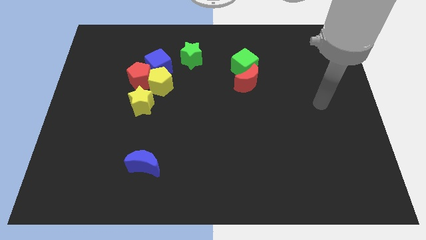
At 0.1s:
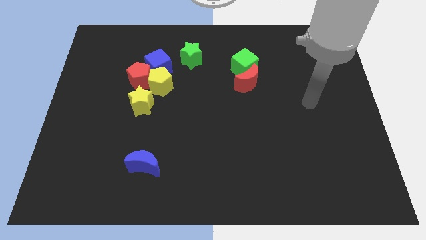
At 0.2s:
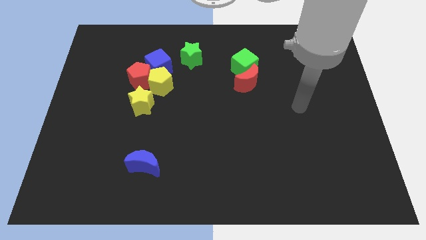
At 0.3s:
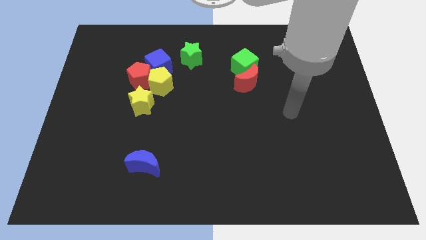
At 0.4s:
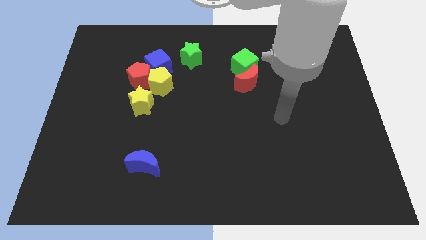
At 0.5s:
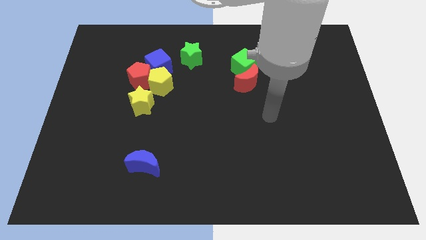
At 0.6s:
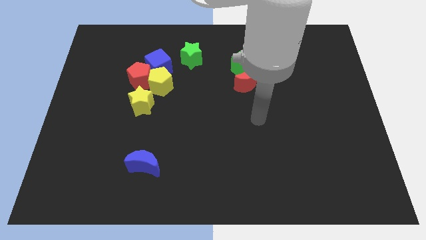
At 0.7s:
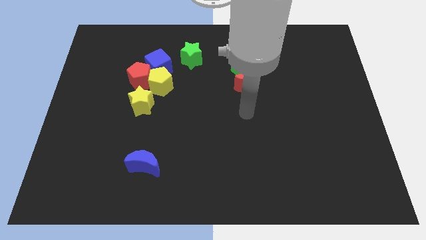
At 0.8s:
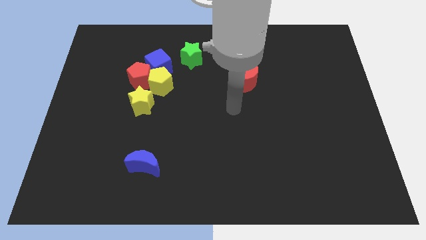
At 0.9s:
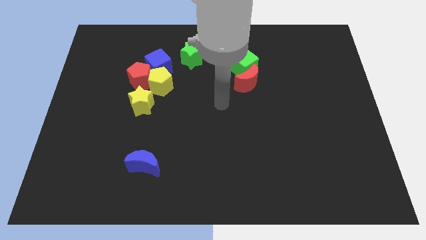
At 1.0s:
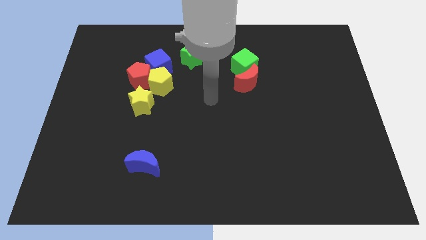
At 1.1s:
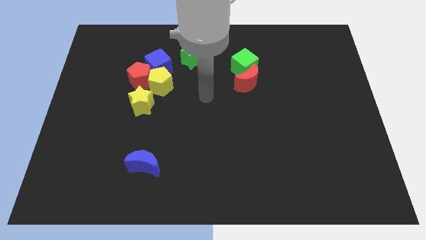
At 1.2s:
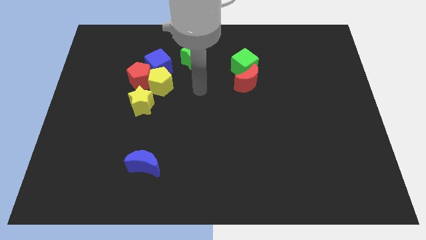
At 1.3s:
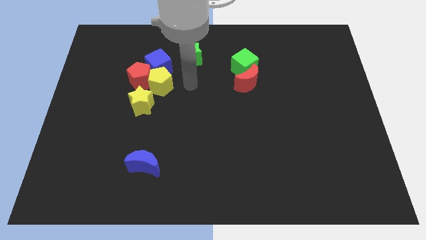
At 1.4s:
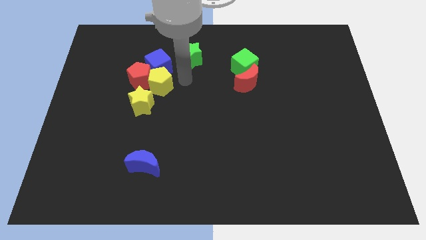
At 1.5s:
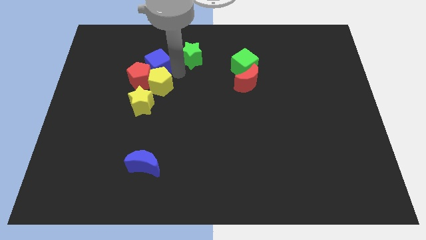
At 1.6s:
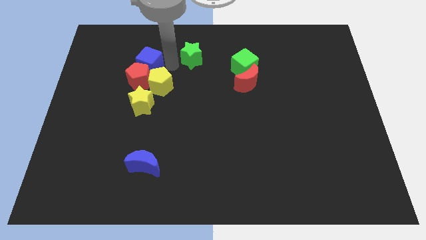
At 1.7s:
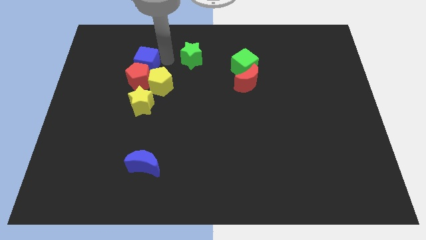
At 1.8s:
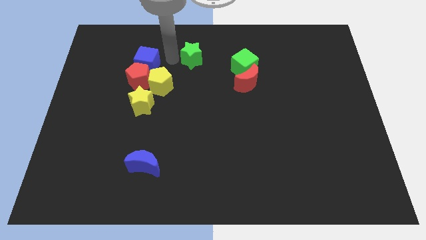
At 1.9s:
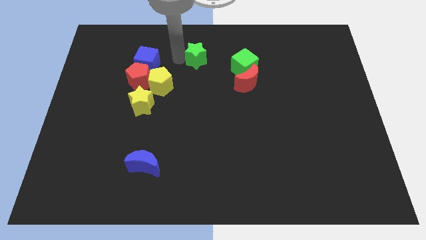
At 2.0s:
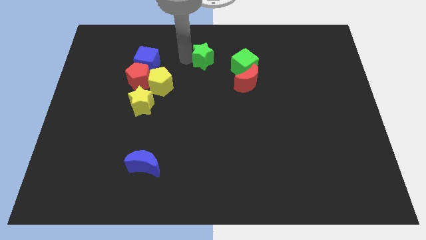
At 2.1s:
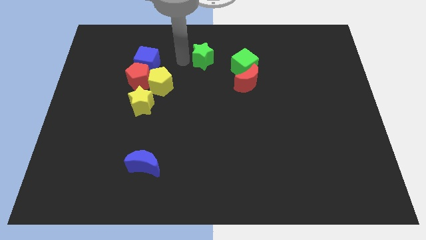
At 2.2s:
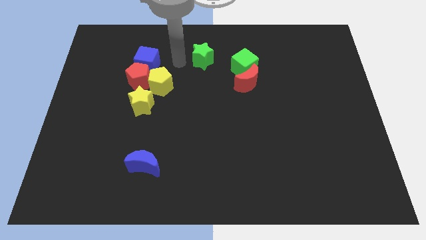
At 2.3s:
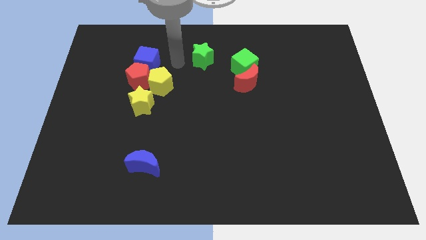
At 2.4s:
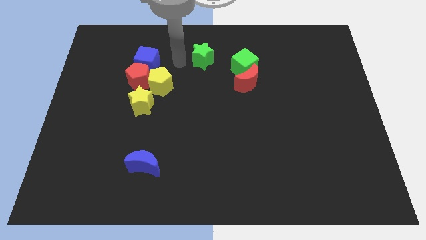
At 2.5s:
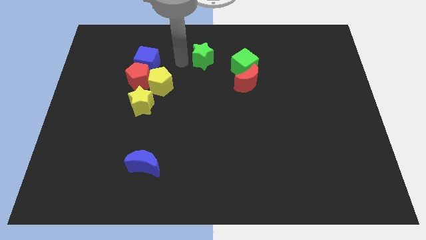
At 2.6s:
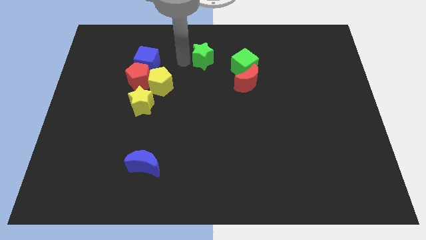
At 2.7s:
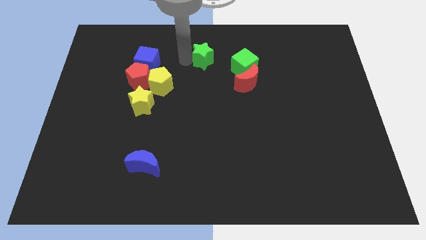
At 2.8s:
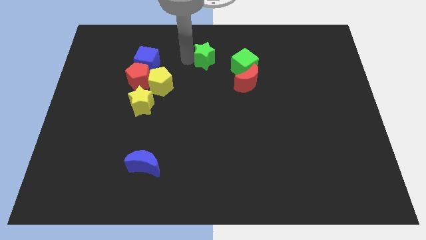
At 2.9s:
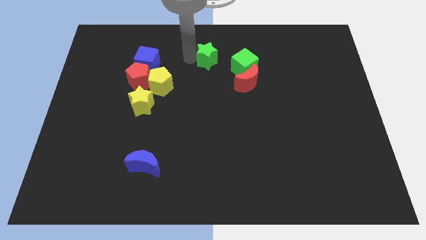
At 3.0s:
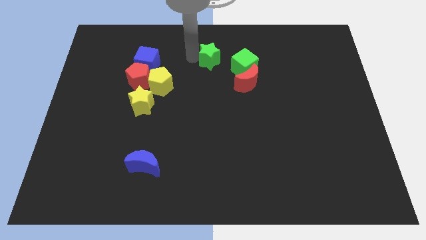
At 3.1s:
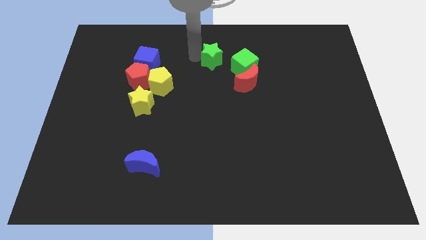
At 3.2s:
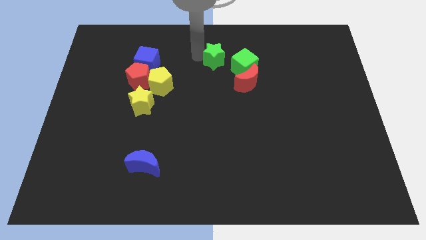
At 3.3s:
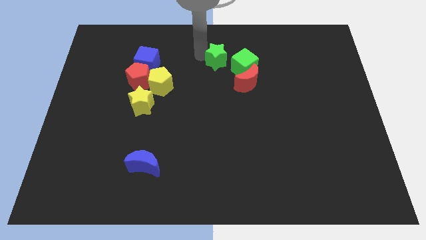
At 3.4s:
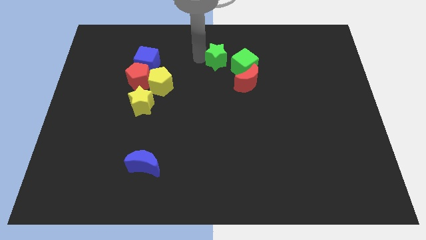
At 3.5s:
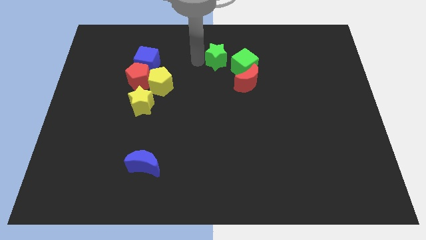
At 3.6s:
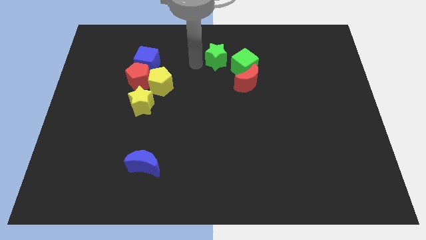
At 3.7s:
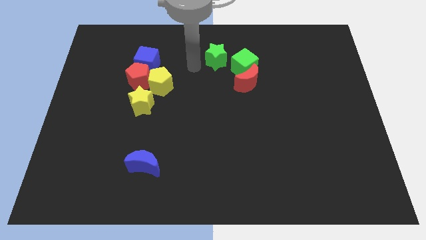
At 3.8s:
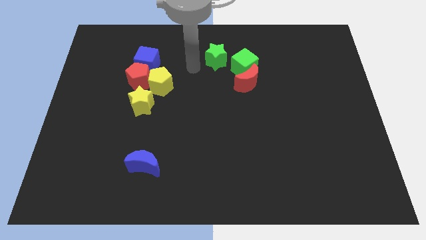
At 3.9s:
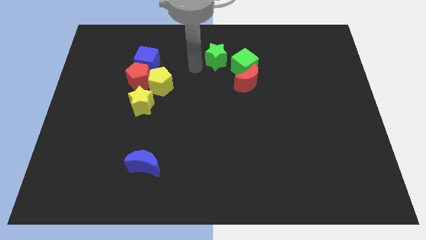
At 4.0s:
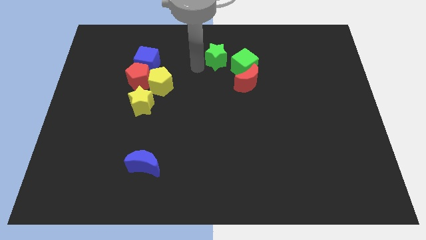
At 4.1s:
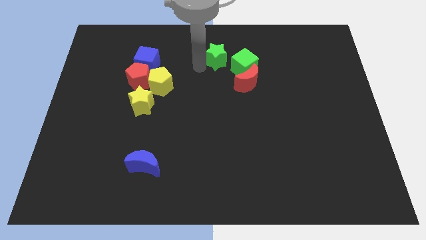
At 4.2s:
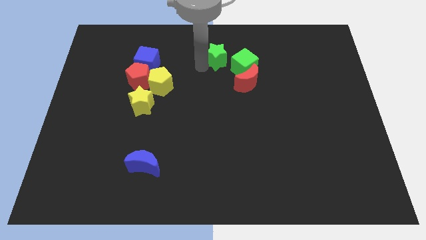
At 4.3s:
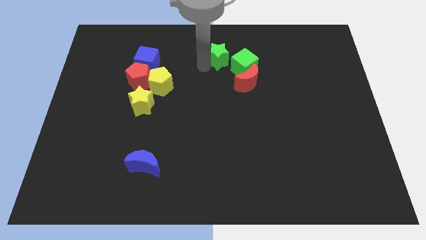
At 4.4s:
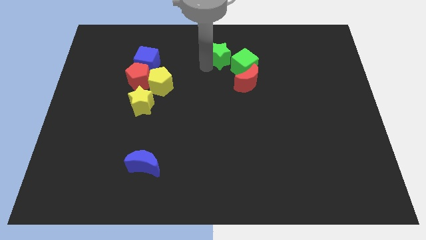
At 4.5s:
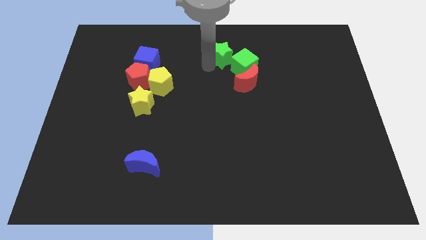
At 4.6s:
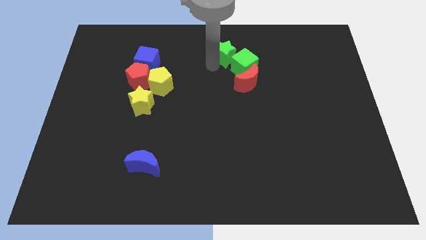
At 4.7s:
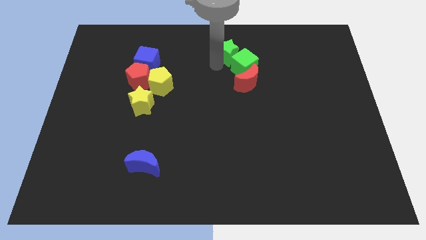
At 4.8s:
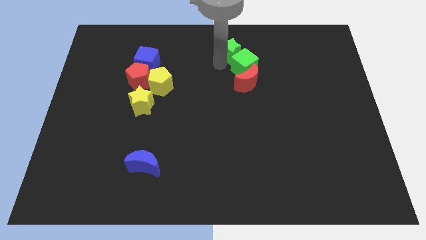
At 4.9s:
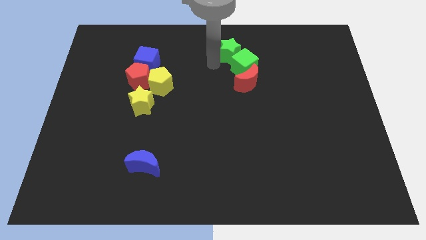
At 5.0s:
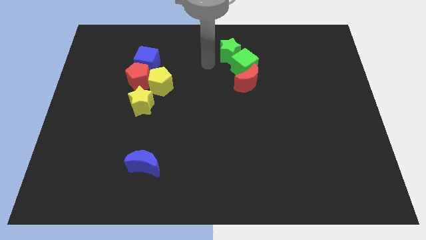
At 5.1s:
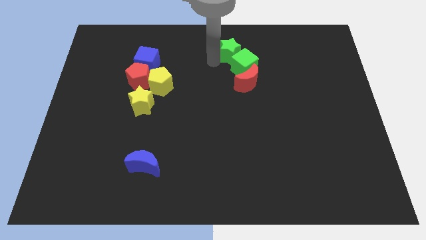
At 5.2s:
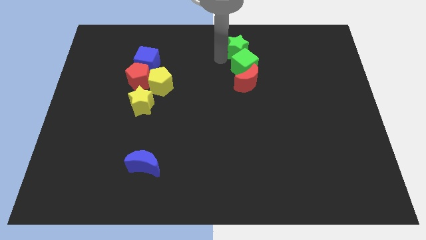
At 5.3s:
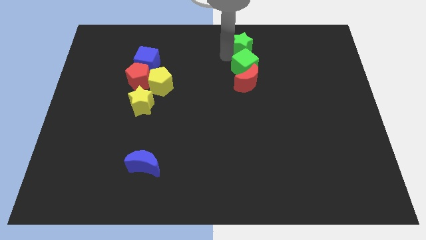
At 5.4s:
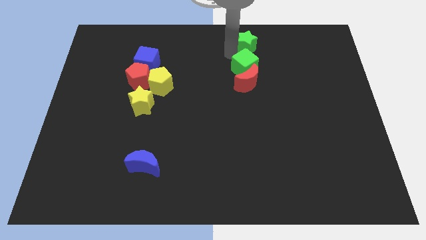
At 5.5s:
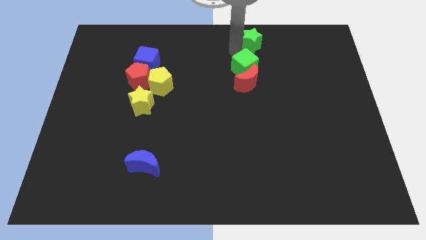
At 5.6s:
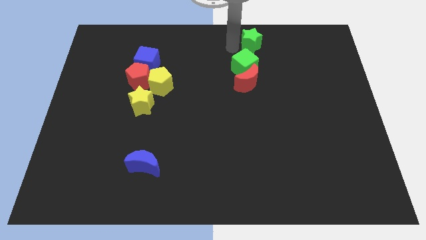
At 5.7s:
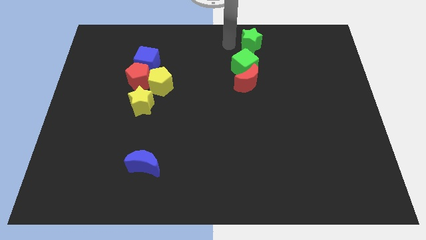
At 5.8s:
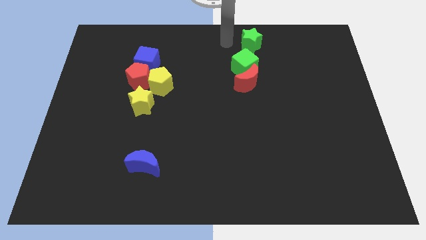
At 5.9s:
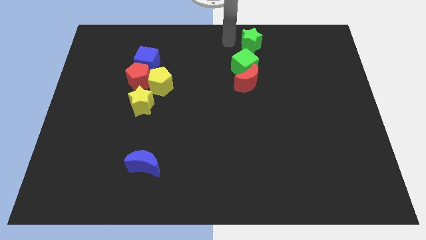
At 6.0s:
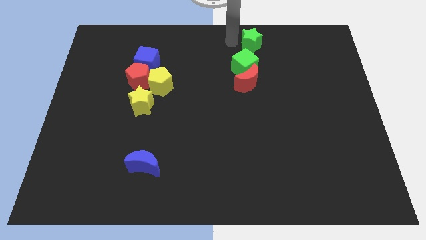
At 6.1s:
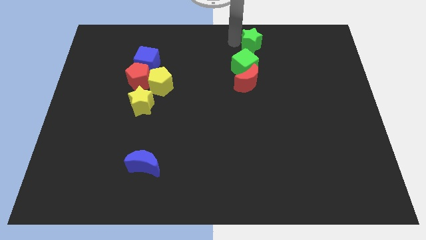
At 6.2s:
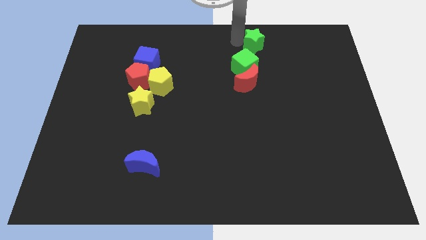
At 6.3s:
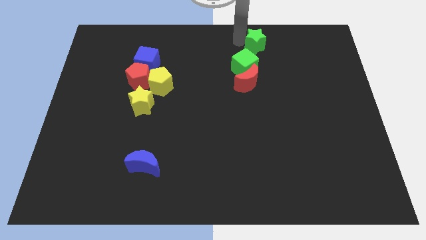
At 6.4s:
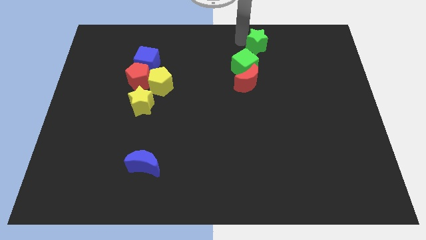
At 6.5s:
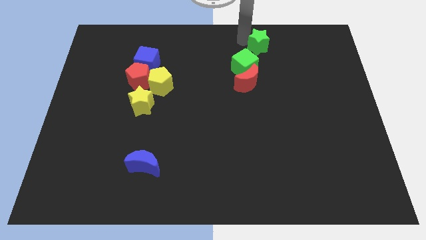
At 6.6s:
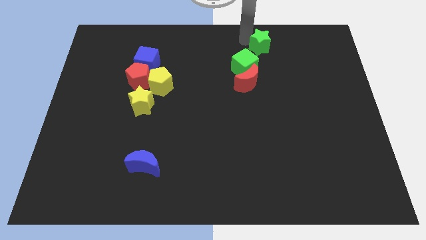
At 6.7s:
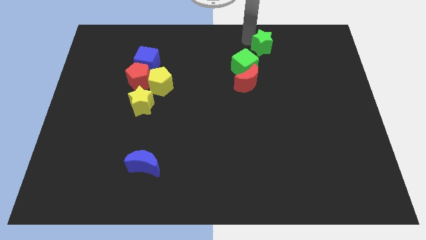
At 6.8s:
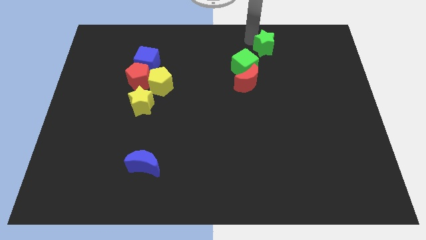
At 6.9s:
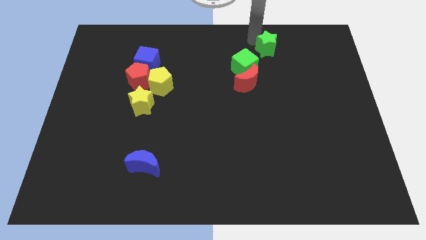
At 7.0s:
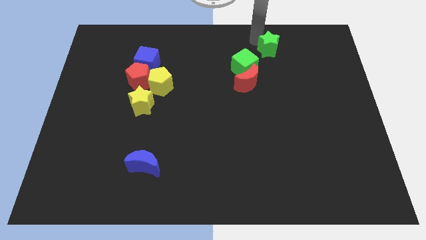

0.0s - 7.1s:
move the green star to the right

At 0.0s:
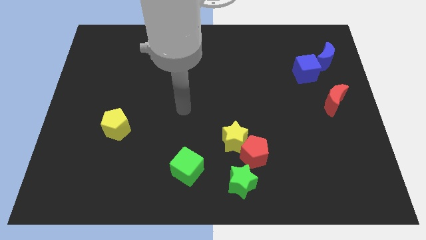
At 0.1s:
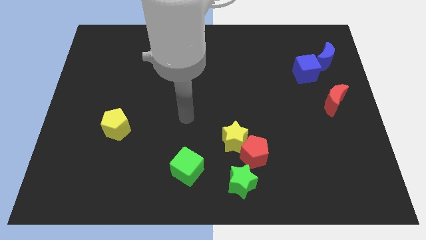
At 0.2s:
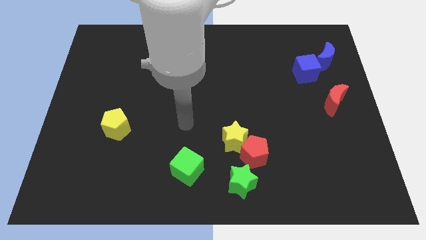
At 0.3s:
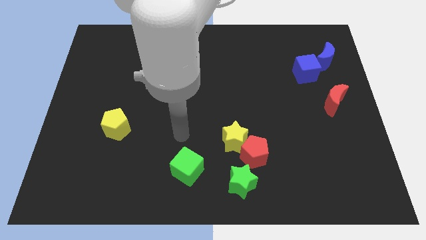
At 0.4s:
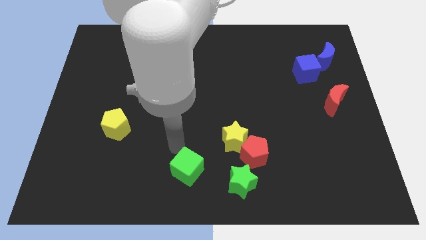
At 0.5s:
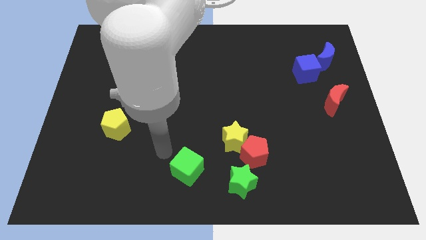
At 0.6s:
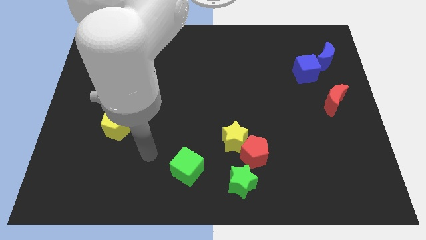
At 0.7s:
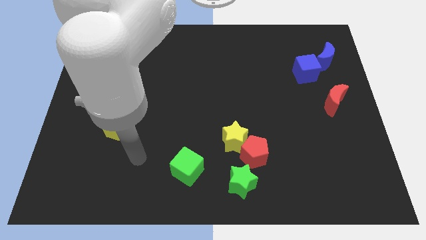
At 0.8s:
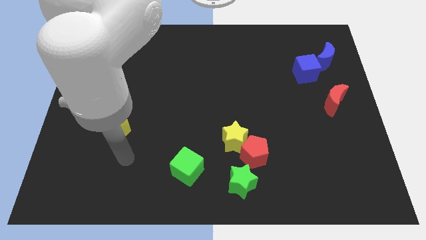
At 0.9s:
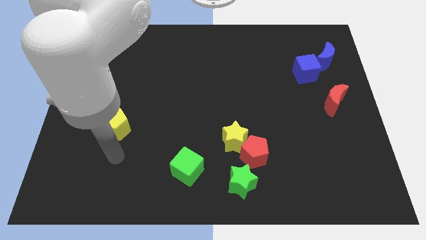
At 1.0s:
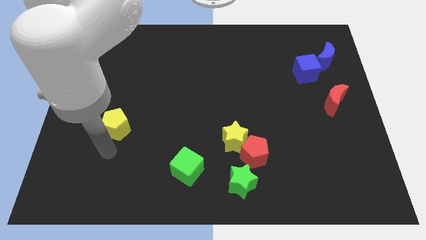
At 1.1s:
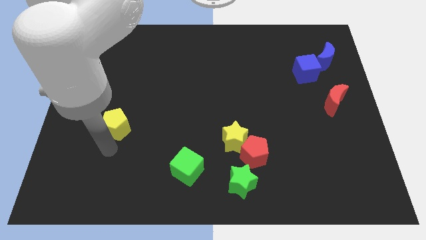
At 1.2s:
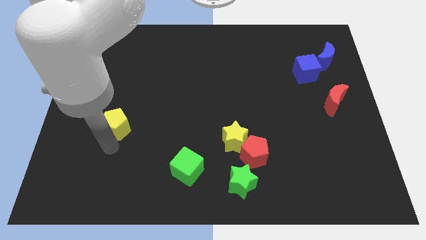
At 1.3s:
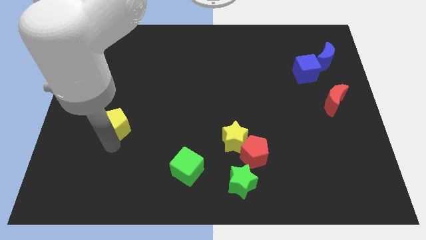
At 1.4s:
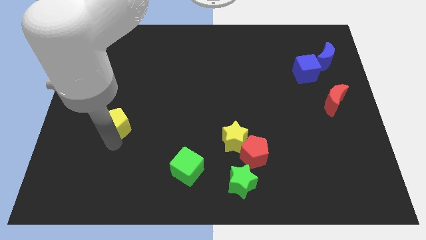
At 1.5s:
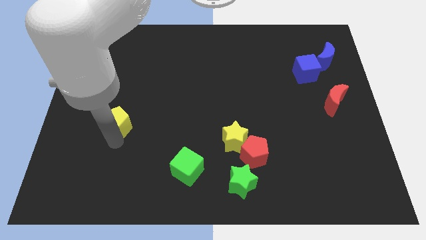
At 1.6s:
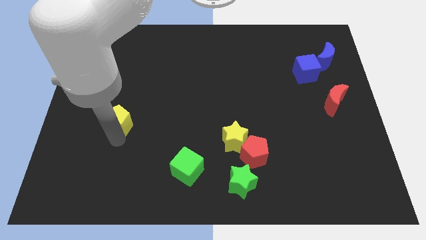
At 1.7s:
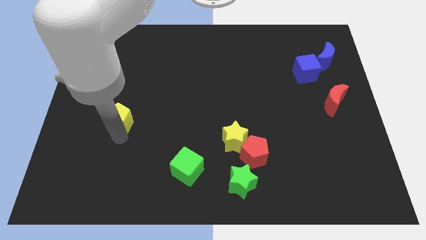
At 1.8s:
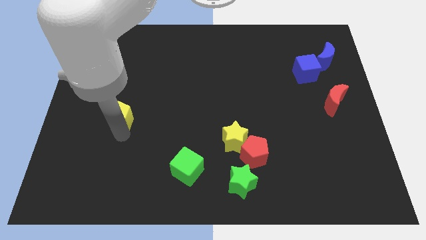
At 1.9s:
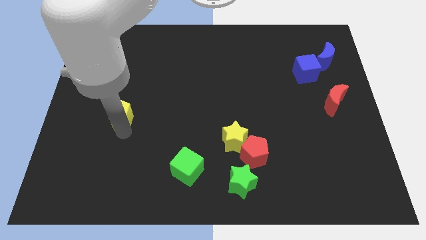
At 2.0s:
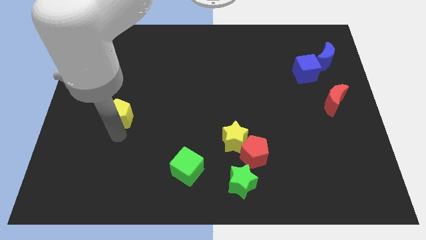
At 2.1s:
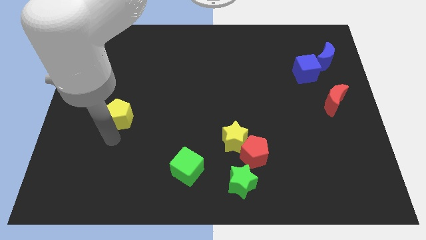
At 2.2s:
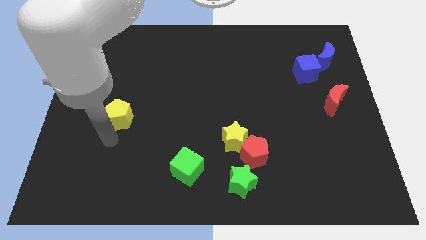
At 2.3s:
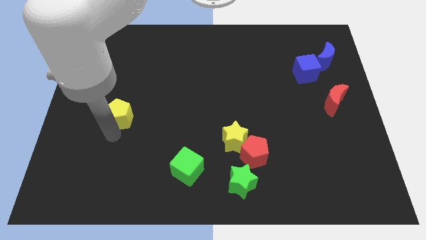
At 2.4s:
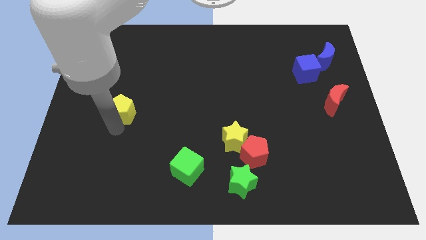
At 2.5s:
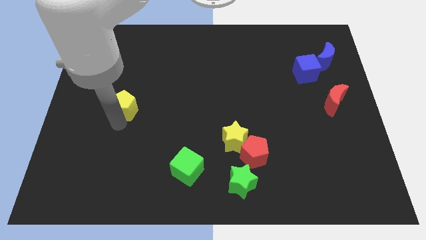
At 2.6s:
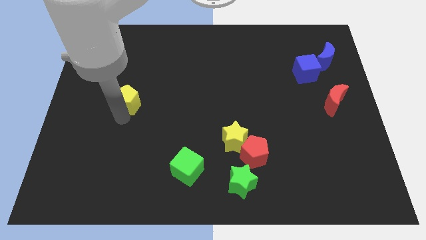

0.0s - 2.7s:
push the yellow pentagon upwards somewhat
